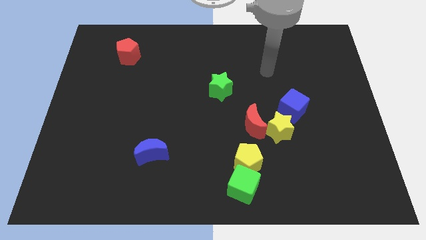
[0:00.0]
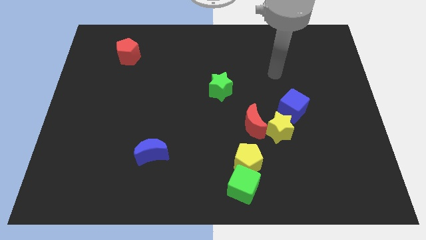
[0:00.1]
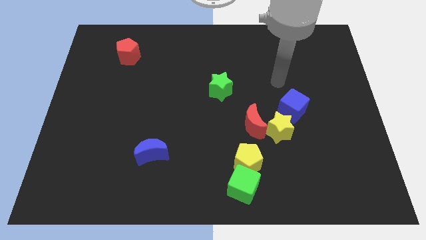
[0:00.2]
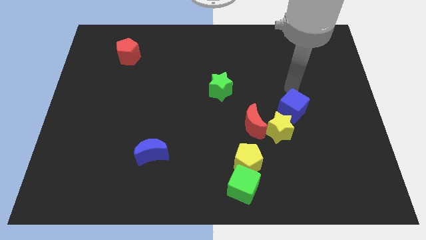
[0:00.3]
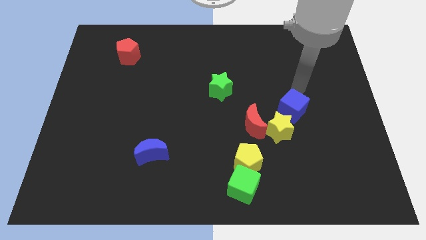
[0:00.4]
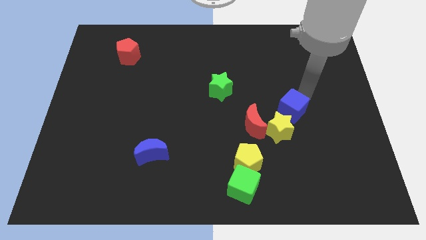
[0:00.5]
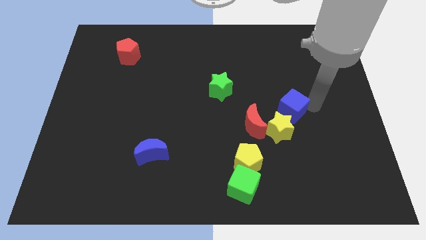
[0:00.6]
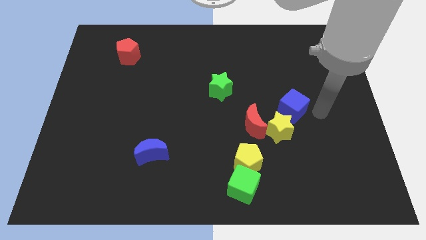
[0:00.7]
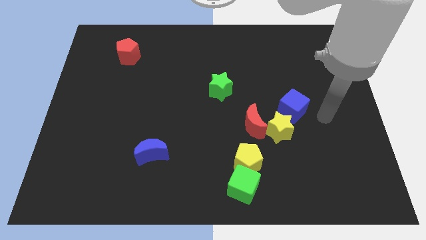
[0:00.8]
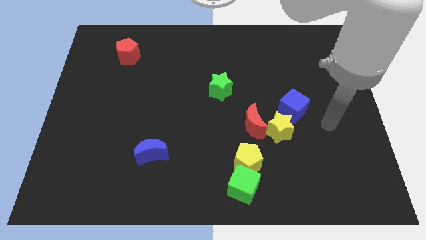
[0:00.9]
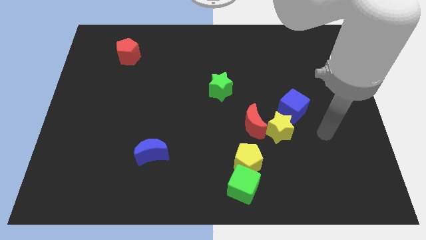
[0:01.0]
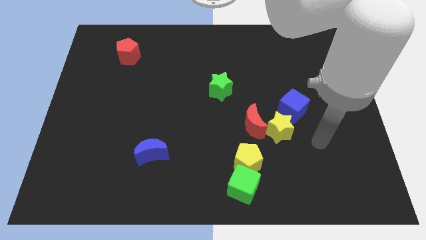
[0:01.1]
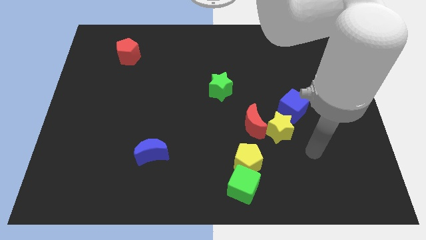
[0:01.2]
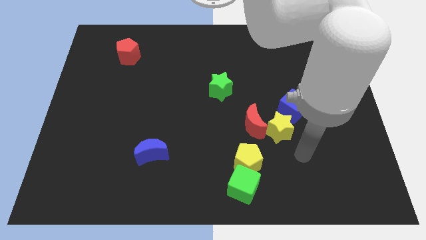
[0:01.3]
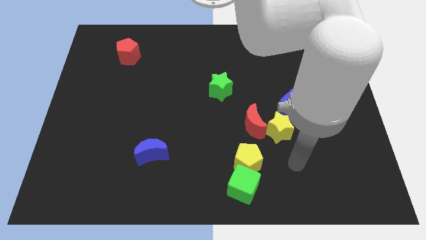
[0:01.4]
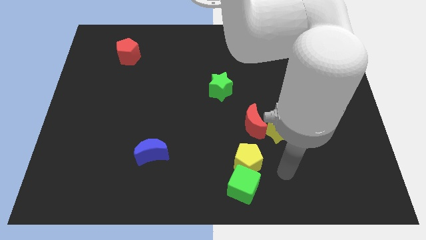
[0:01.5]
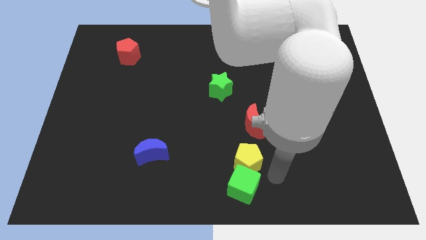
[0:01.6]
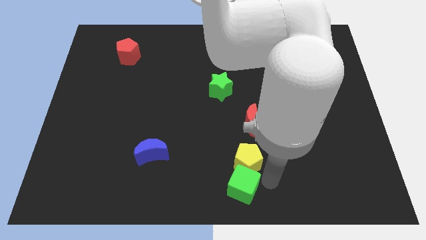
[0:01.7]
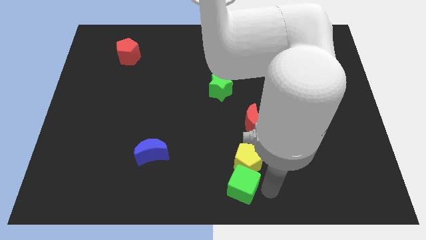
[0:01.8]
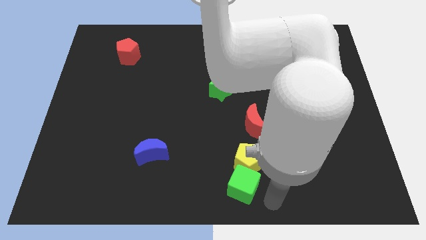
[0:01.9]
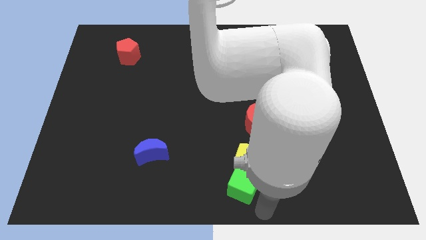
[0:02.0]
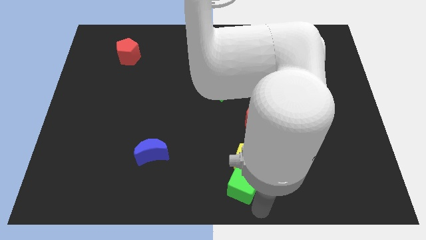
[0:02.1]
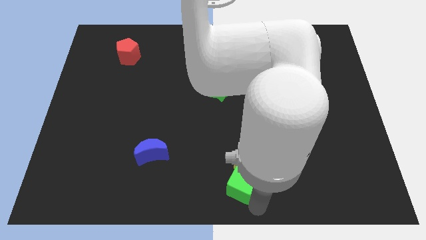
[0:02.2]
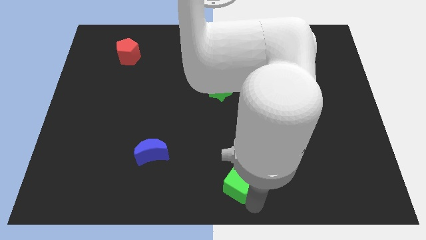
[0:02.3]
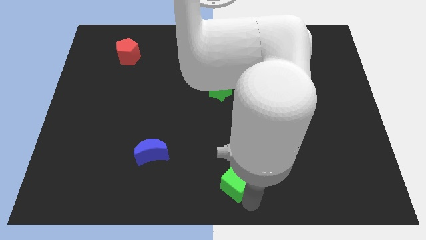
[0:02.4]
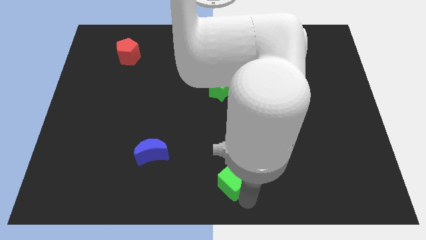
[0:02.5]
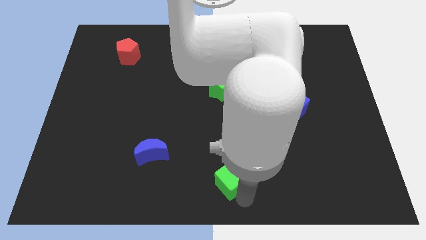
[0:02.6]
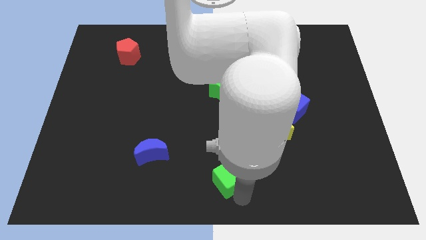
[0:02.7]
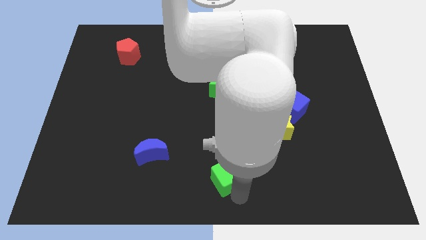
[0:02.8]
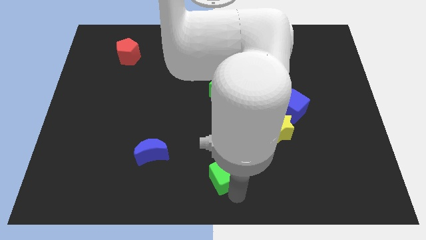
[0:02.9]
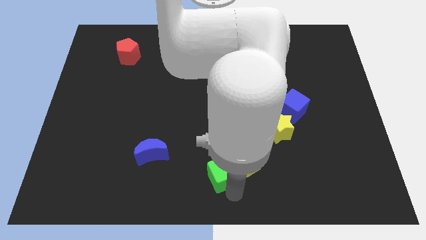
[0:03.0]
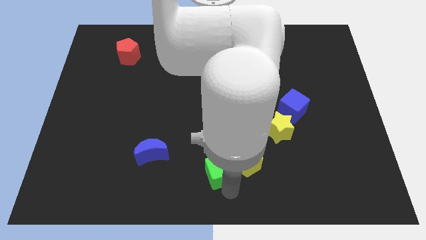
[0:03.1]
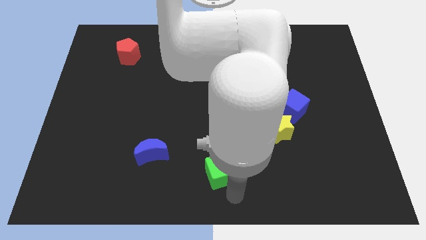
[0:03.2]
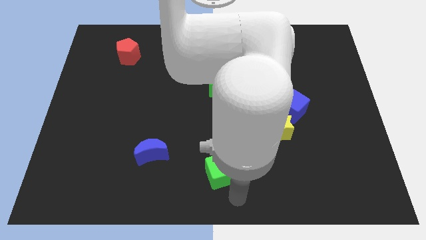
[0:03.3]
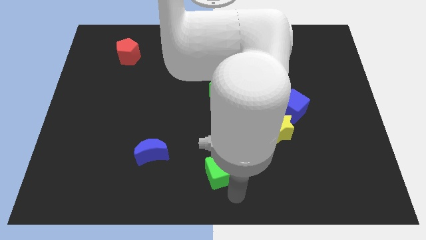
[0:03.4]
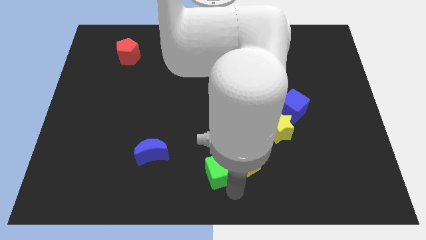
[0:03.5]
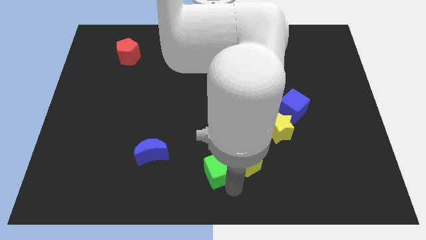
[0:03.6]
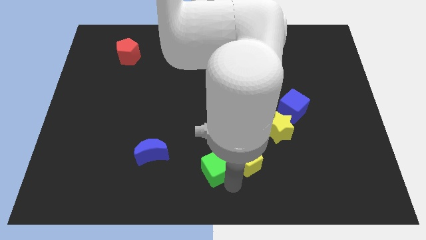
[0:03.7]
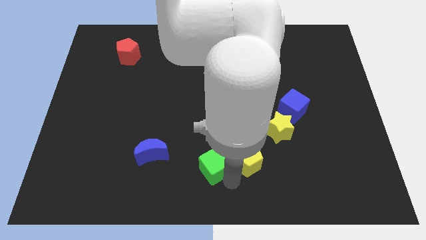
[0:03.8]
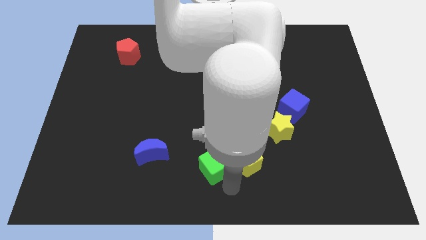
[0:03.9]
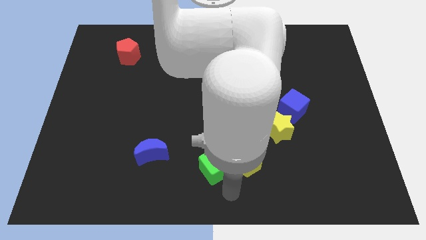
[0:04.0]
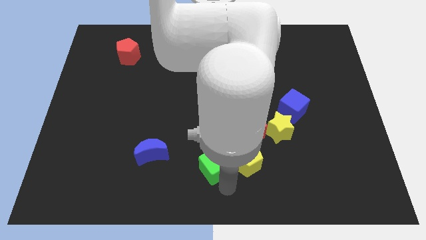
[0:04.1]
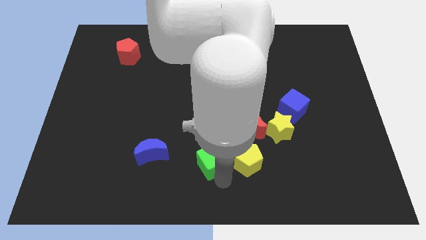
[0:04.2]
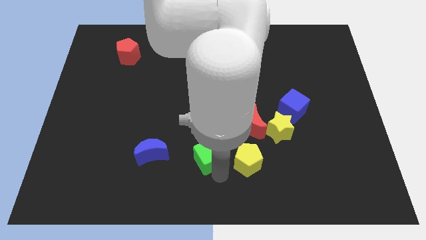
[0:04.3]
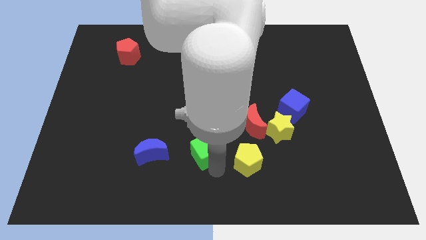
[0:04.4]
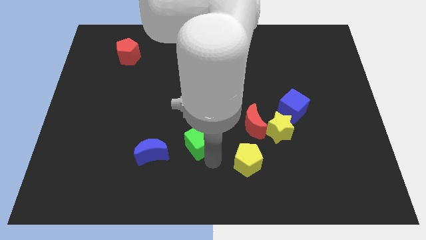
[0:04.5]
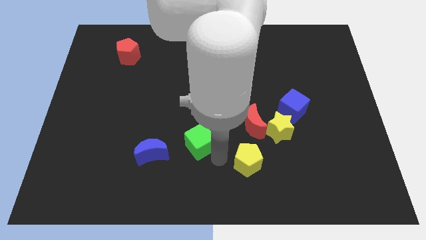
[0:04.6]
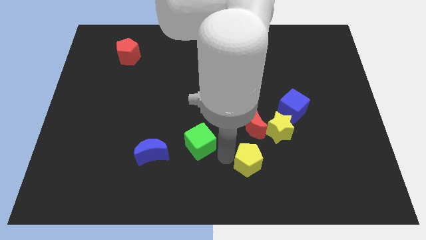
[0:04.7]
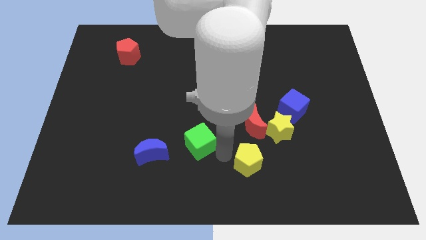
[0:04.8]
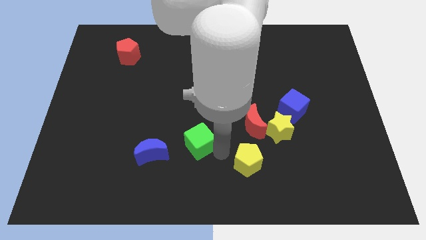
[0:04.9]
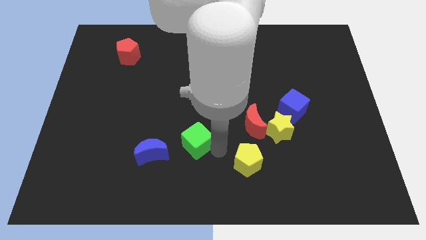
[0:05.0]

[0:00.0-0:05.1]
slide the green cube to the top right side of the blue moon

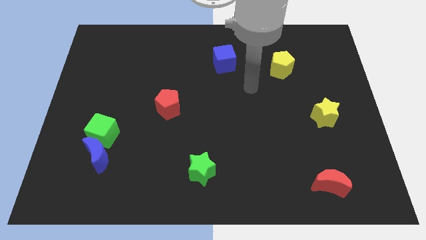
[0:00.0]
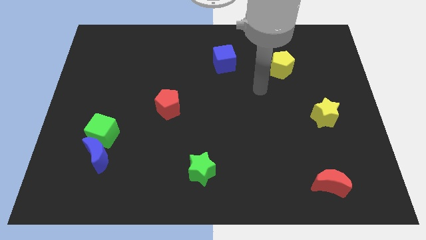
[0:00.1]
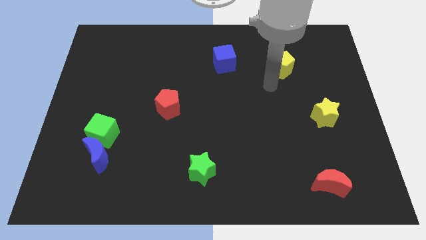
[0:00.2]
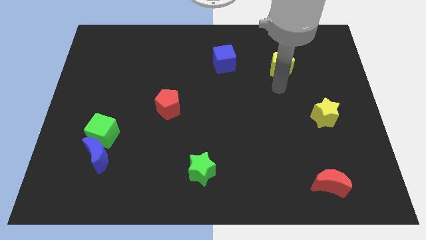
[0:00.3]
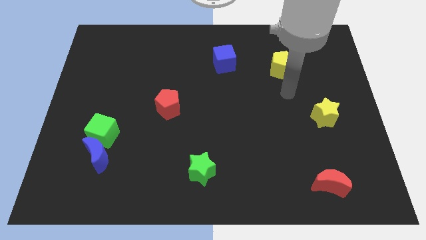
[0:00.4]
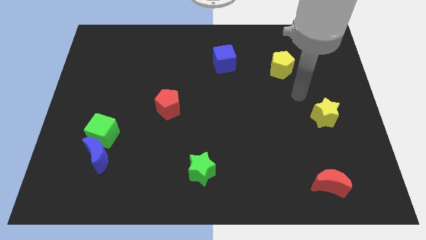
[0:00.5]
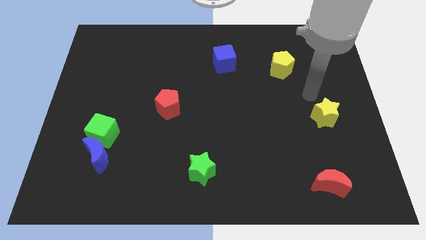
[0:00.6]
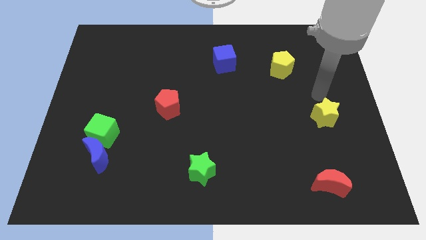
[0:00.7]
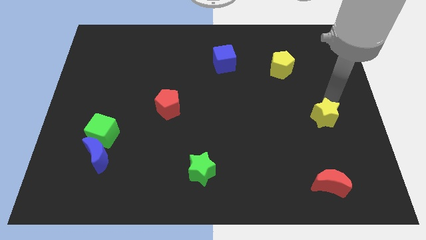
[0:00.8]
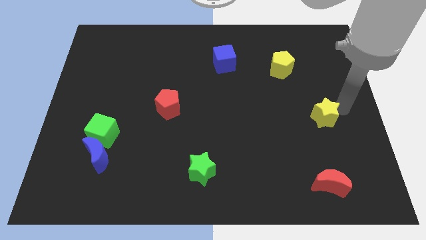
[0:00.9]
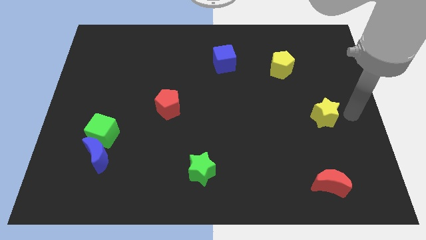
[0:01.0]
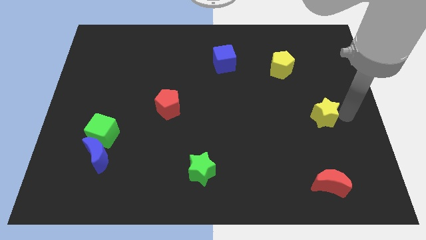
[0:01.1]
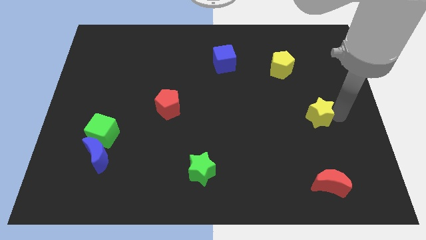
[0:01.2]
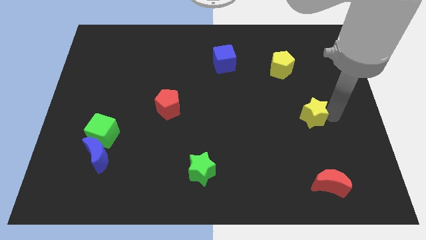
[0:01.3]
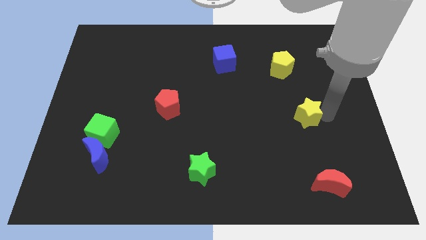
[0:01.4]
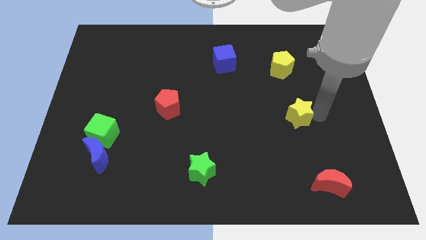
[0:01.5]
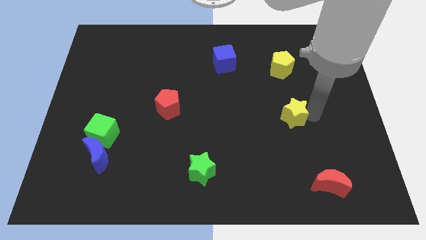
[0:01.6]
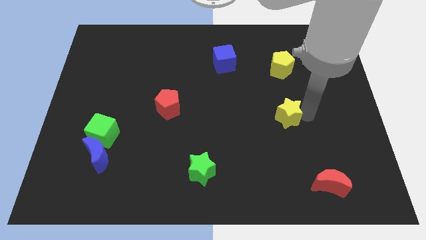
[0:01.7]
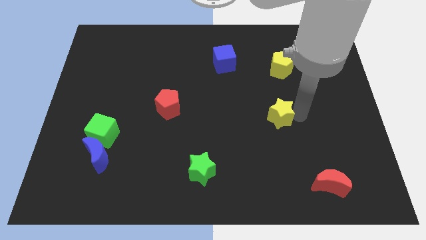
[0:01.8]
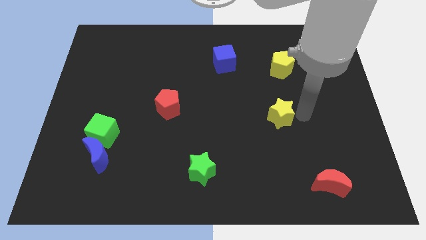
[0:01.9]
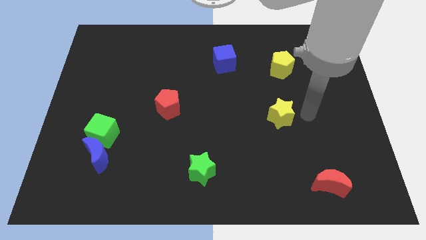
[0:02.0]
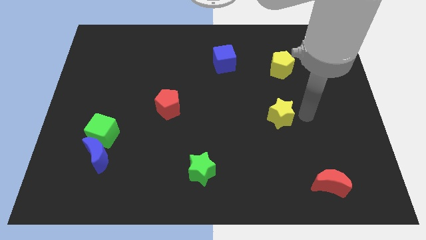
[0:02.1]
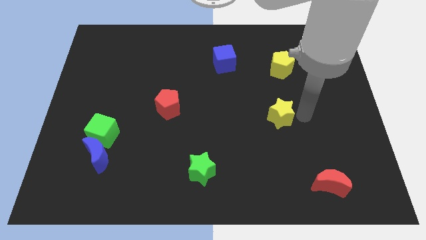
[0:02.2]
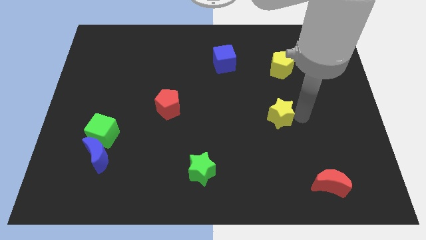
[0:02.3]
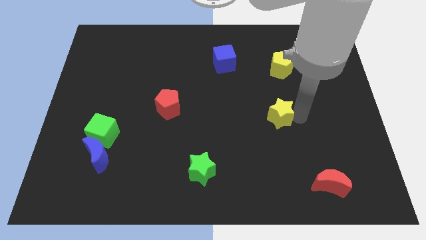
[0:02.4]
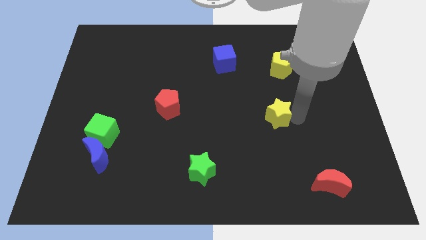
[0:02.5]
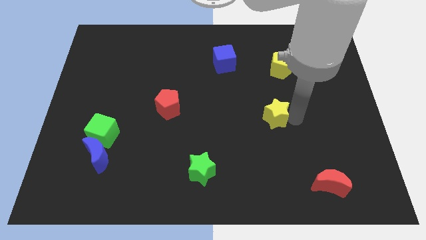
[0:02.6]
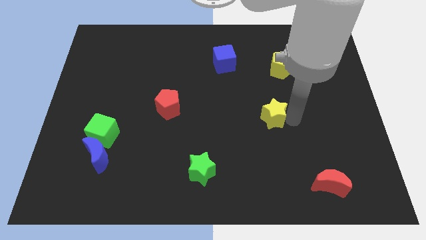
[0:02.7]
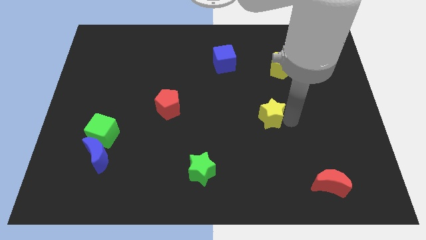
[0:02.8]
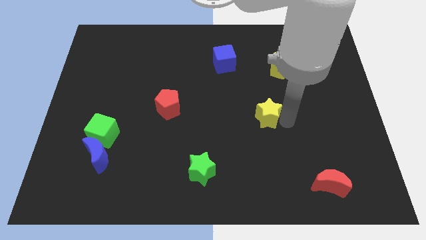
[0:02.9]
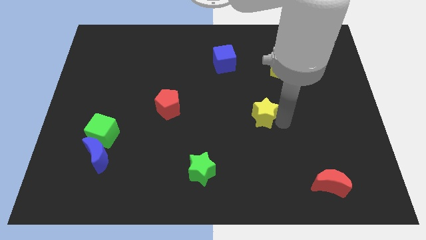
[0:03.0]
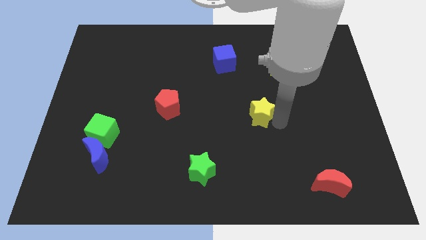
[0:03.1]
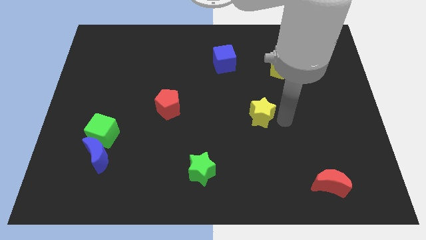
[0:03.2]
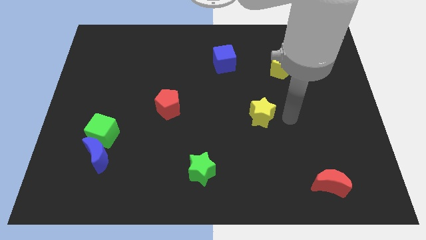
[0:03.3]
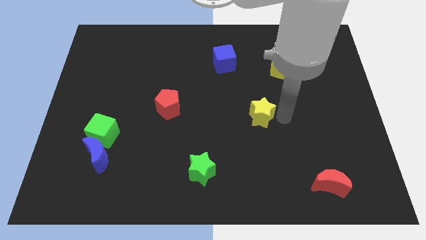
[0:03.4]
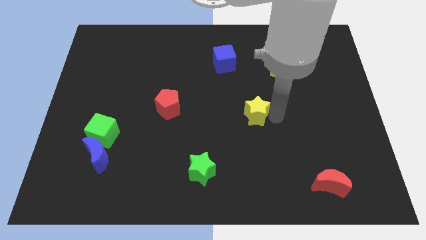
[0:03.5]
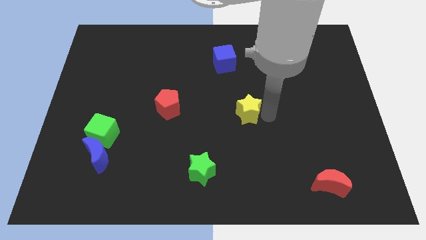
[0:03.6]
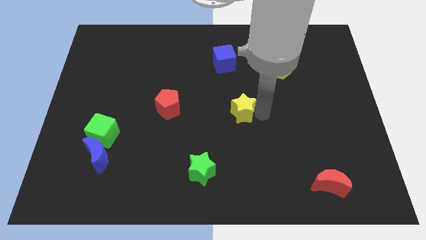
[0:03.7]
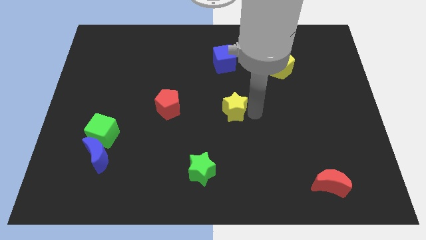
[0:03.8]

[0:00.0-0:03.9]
move the yellow star right of the red pentagon
